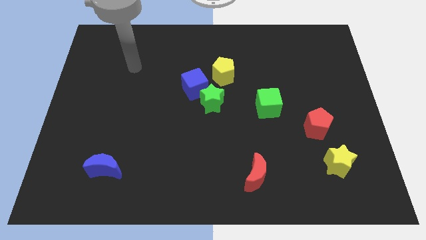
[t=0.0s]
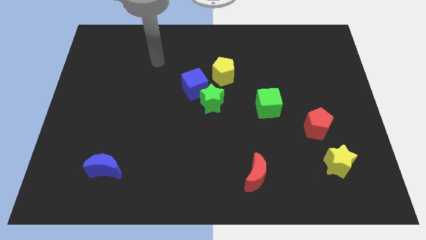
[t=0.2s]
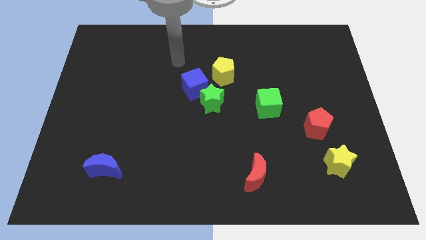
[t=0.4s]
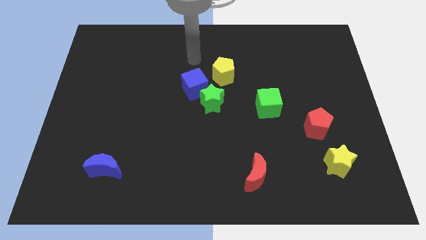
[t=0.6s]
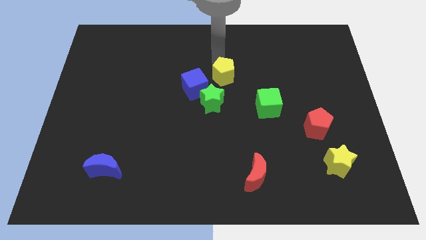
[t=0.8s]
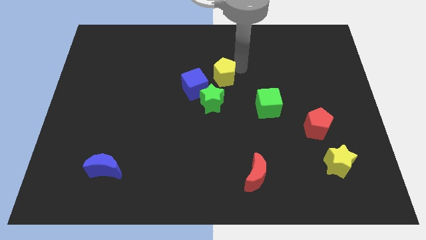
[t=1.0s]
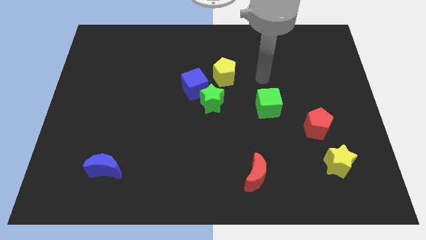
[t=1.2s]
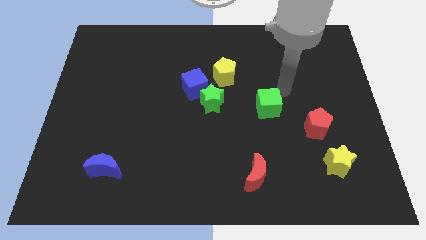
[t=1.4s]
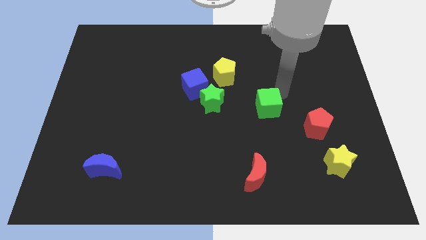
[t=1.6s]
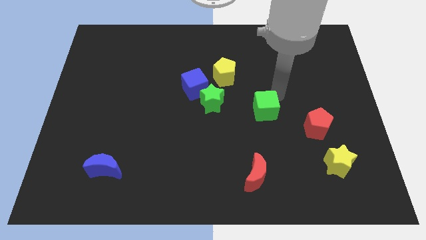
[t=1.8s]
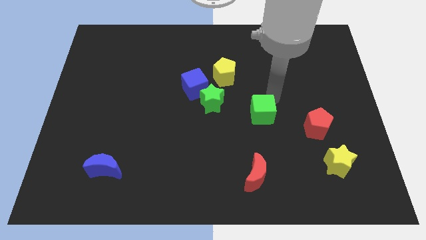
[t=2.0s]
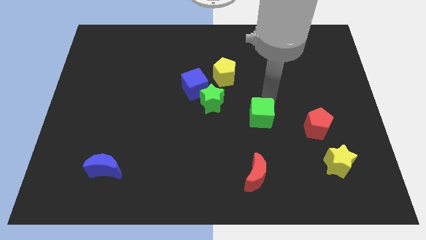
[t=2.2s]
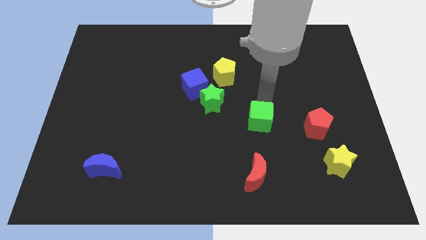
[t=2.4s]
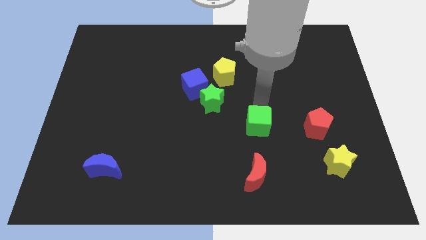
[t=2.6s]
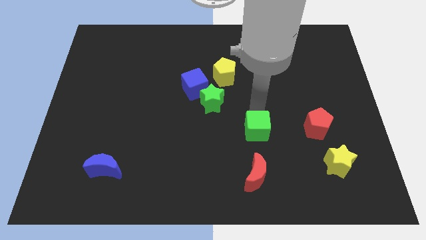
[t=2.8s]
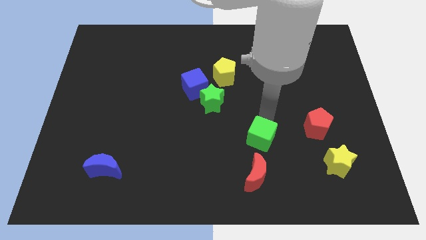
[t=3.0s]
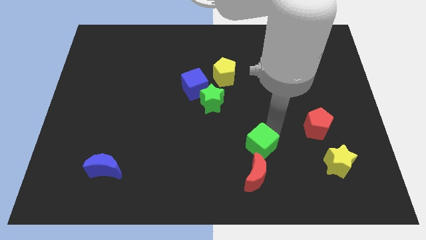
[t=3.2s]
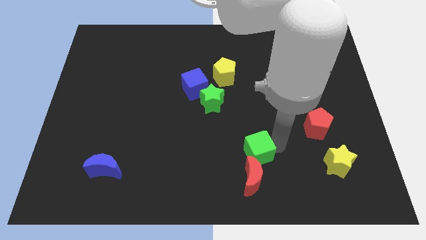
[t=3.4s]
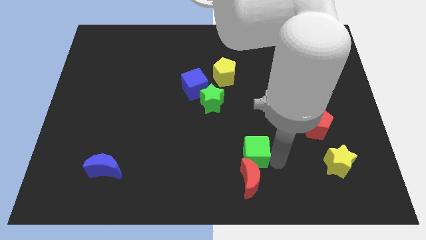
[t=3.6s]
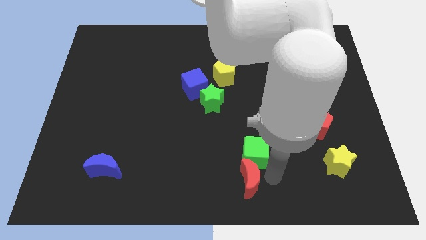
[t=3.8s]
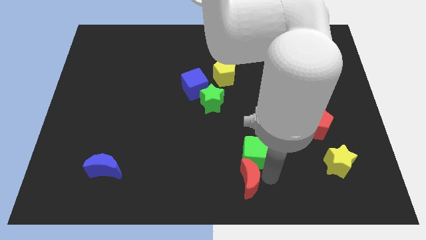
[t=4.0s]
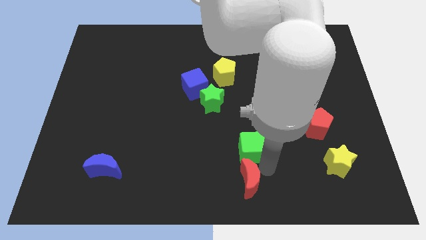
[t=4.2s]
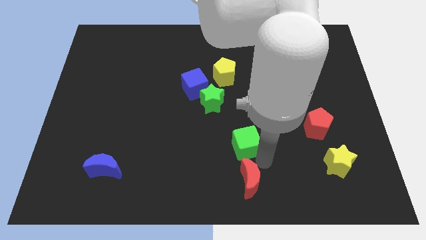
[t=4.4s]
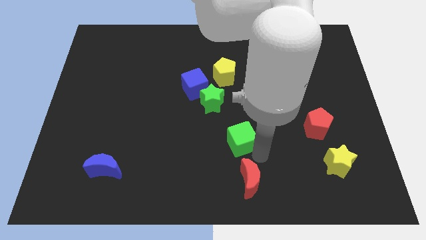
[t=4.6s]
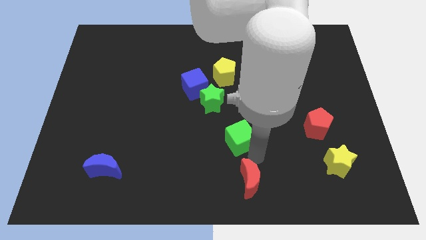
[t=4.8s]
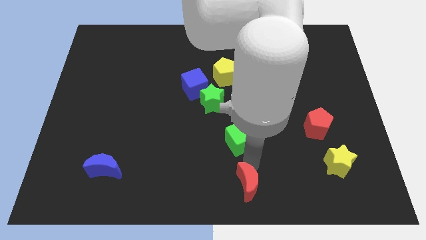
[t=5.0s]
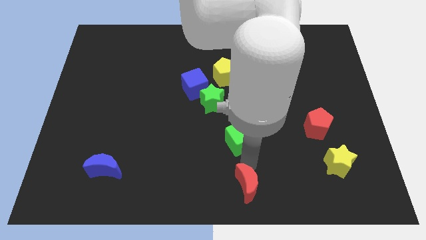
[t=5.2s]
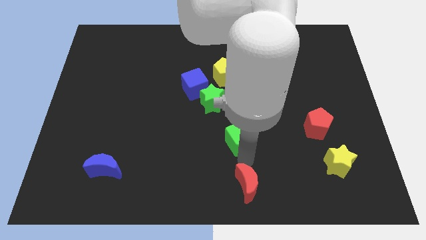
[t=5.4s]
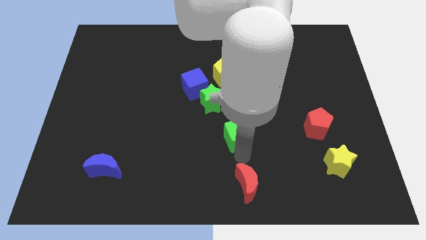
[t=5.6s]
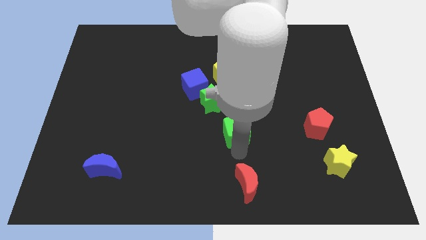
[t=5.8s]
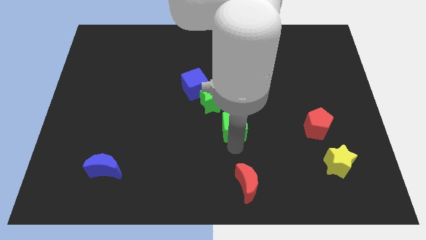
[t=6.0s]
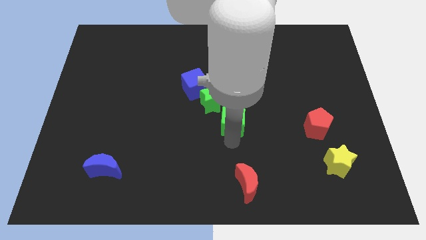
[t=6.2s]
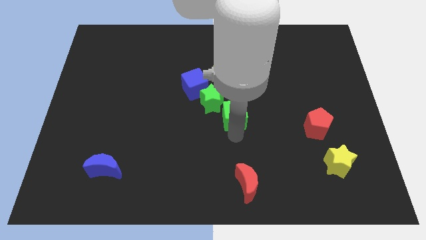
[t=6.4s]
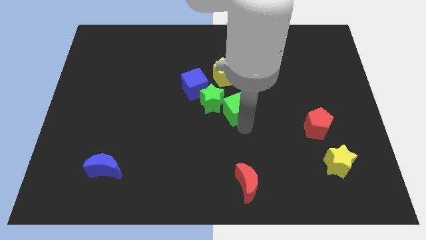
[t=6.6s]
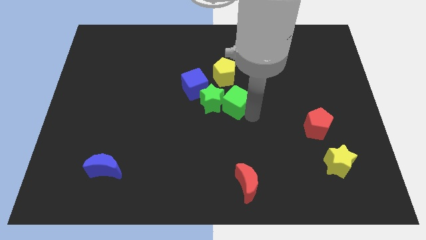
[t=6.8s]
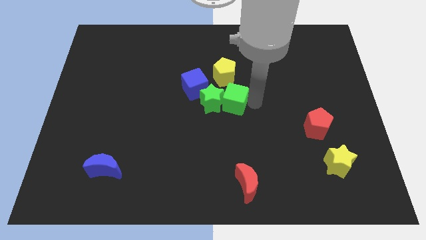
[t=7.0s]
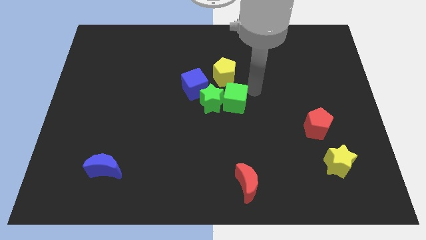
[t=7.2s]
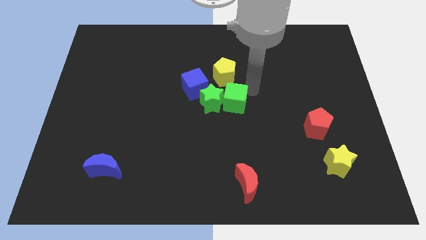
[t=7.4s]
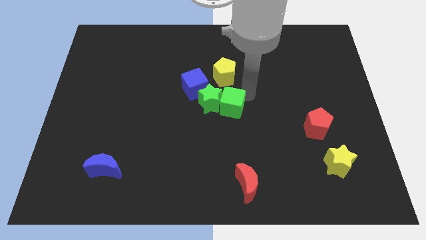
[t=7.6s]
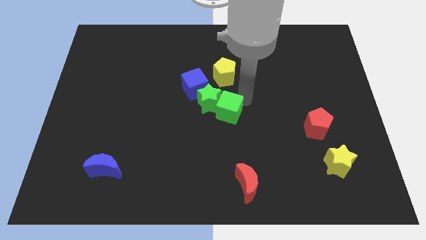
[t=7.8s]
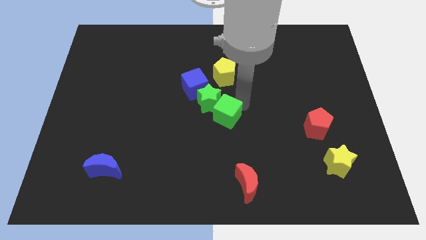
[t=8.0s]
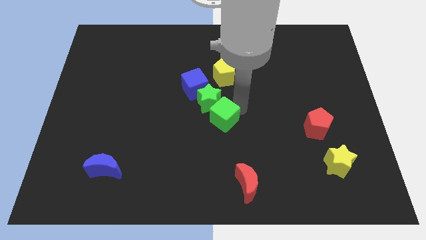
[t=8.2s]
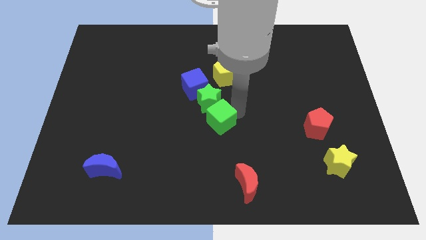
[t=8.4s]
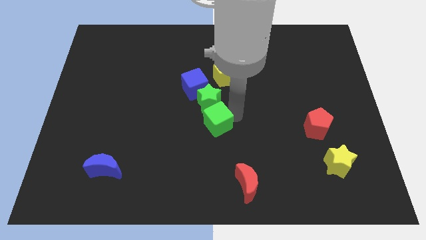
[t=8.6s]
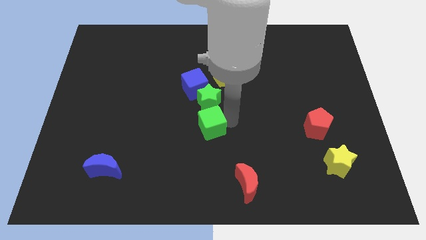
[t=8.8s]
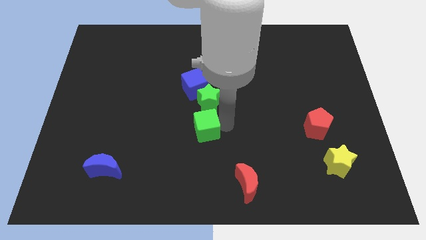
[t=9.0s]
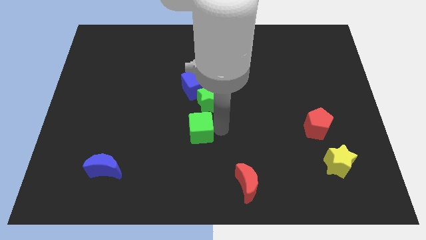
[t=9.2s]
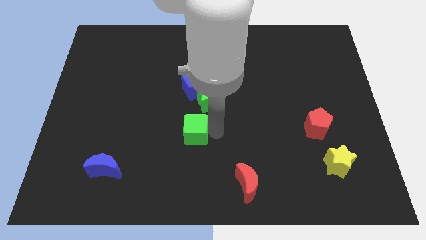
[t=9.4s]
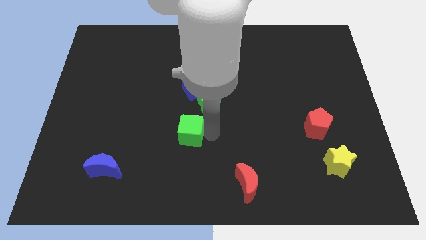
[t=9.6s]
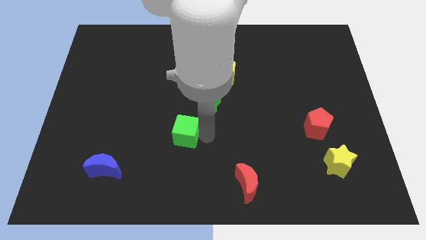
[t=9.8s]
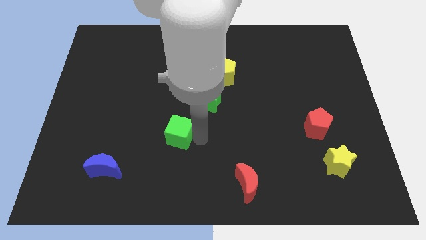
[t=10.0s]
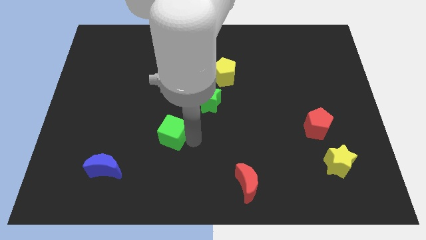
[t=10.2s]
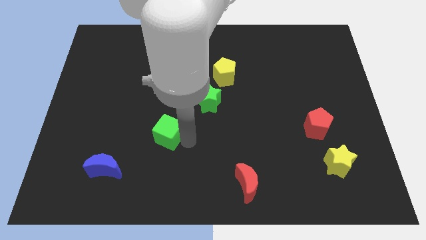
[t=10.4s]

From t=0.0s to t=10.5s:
push the green cube to the left

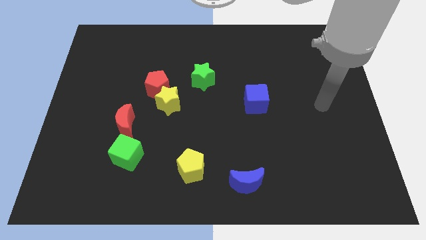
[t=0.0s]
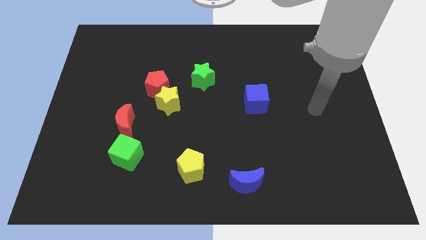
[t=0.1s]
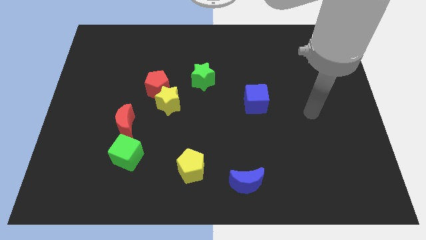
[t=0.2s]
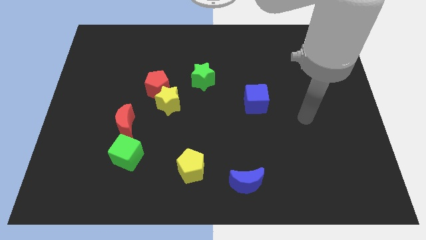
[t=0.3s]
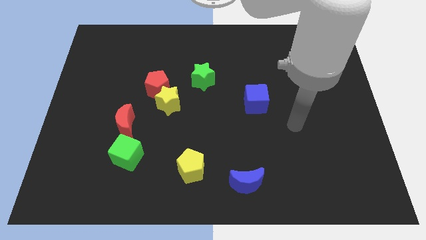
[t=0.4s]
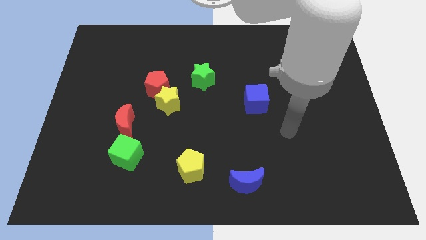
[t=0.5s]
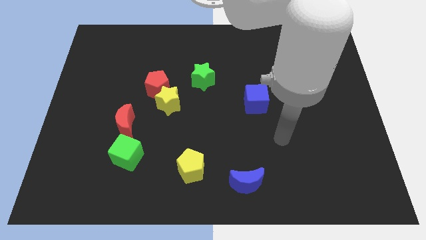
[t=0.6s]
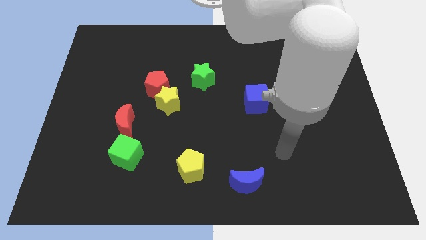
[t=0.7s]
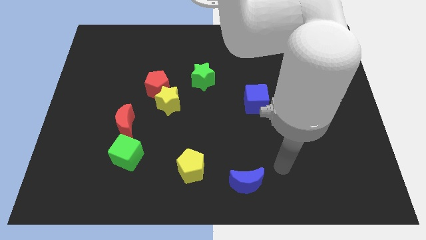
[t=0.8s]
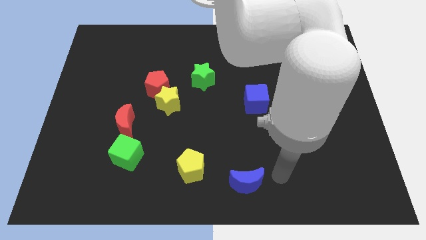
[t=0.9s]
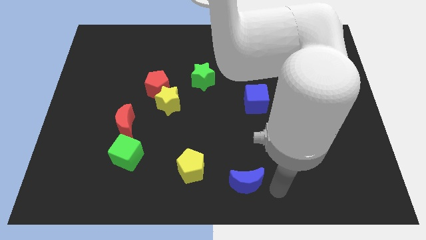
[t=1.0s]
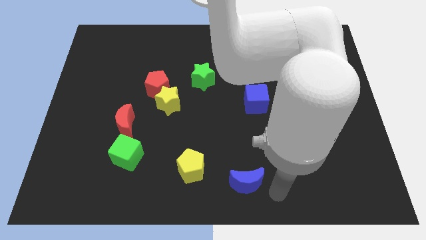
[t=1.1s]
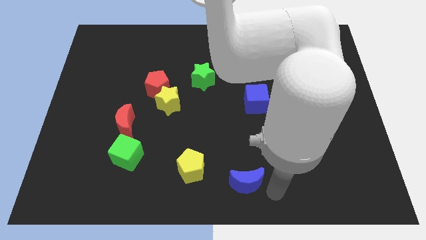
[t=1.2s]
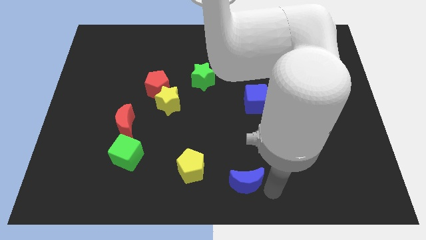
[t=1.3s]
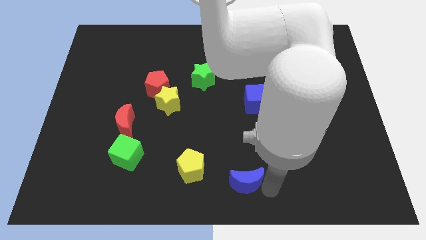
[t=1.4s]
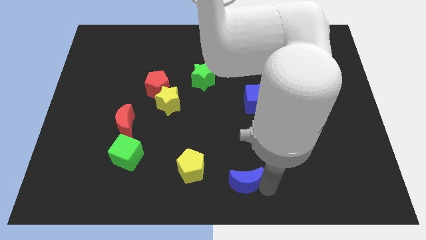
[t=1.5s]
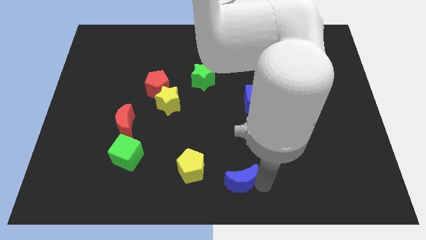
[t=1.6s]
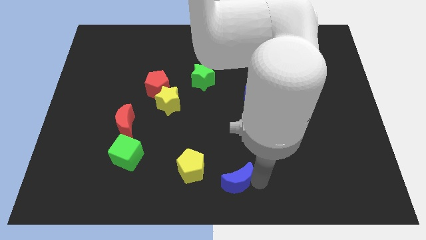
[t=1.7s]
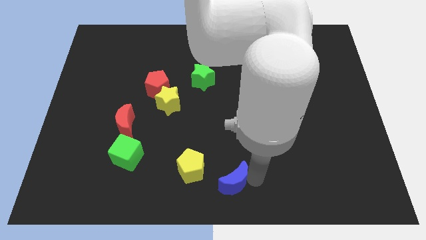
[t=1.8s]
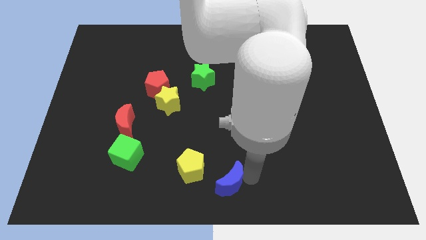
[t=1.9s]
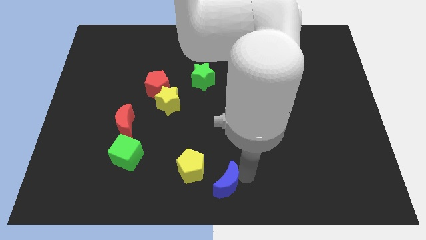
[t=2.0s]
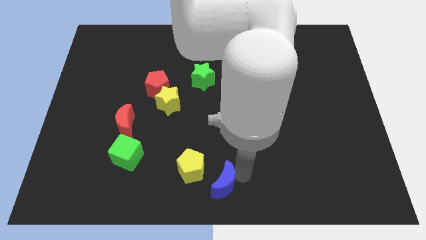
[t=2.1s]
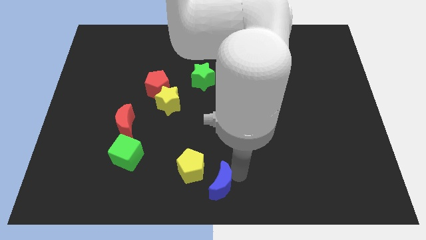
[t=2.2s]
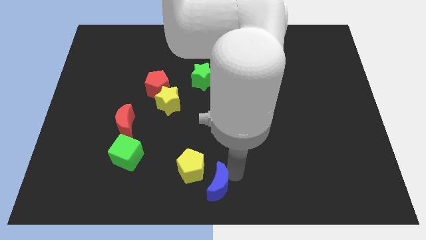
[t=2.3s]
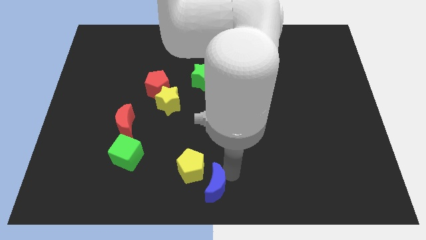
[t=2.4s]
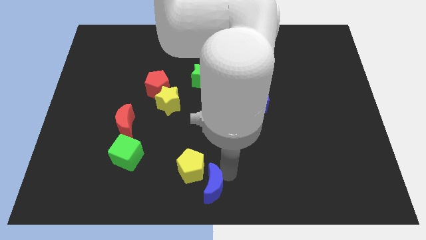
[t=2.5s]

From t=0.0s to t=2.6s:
slide the blue moon to the left somewhat
